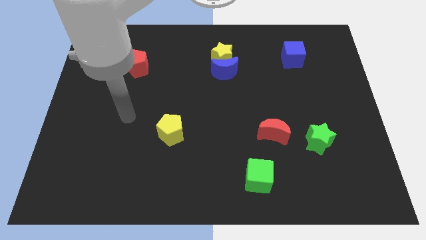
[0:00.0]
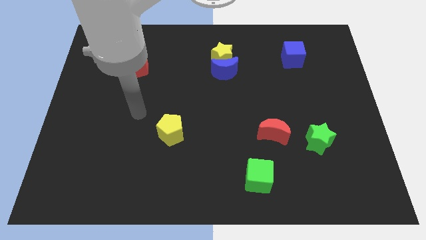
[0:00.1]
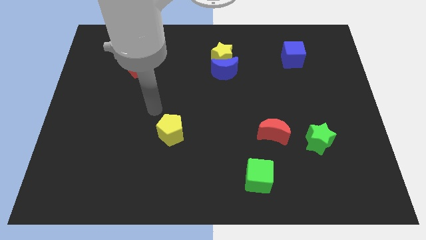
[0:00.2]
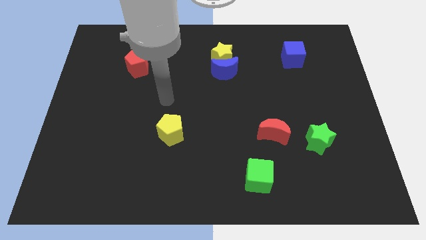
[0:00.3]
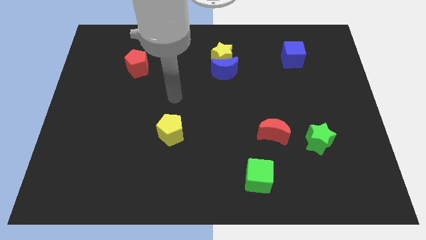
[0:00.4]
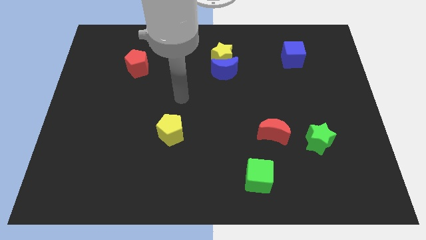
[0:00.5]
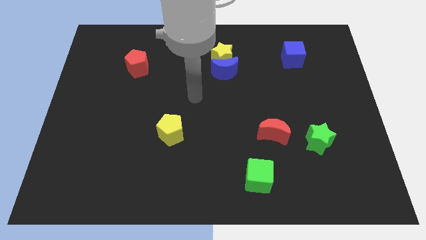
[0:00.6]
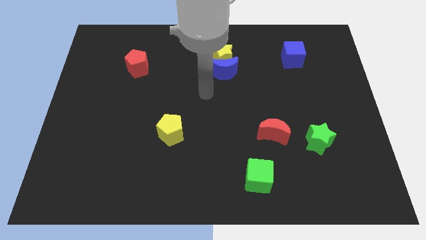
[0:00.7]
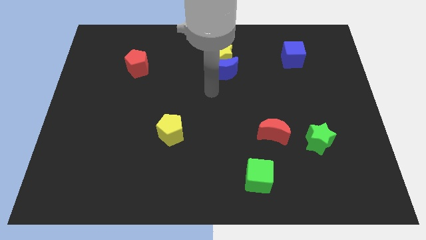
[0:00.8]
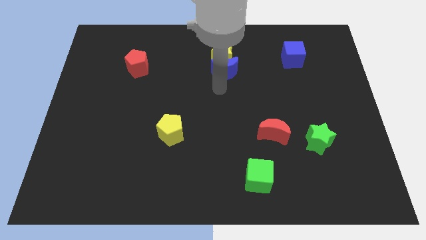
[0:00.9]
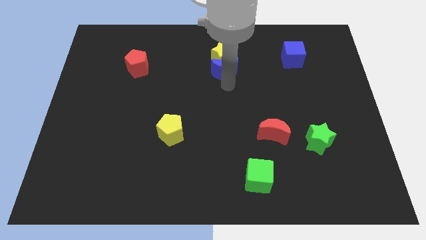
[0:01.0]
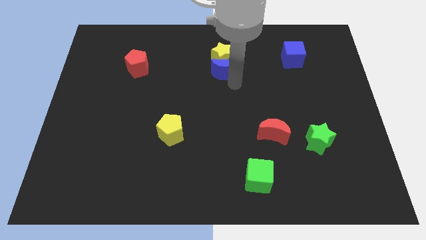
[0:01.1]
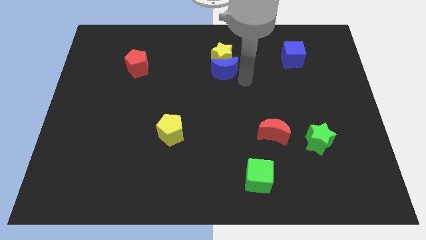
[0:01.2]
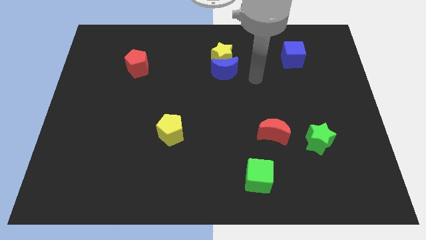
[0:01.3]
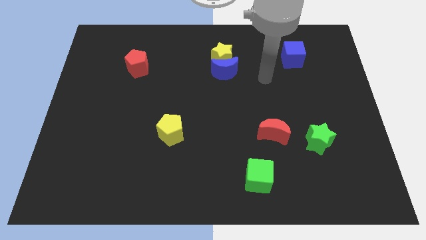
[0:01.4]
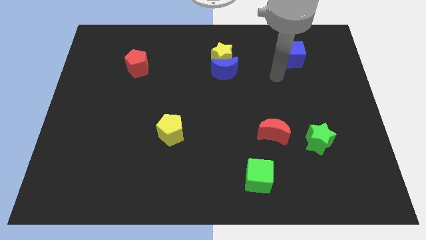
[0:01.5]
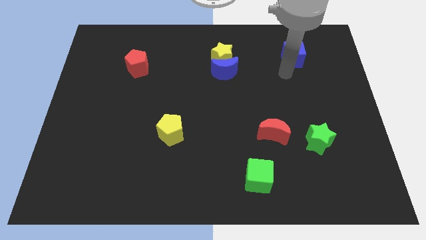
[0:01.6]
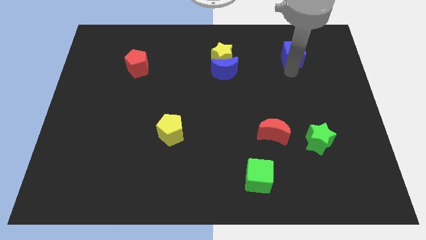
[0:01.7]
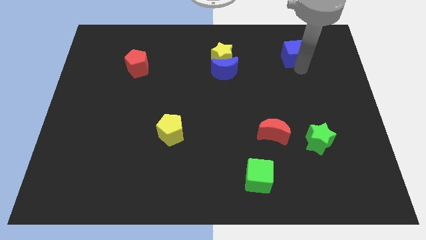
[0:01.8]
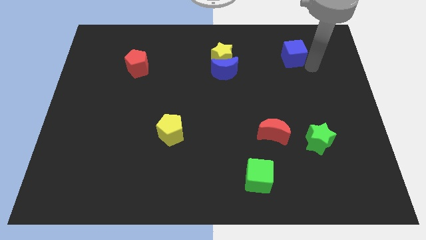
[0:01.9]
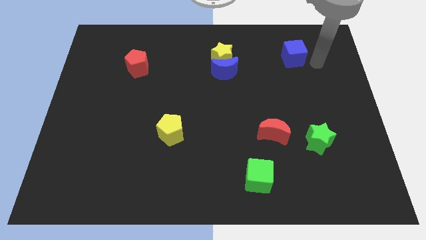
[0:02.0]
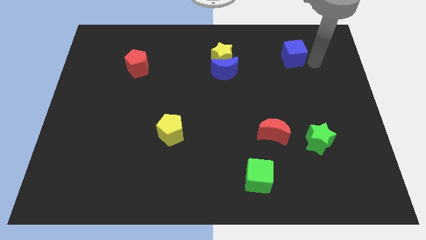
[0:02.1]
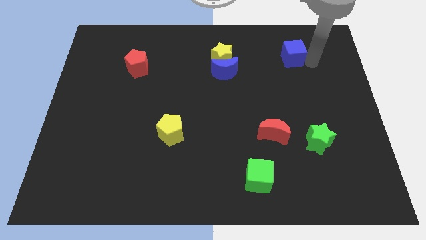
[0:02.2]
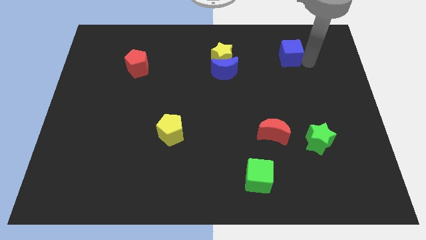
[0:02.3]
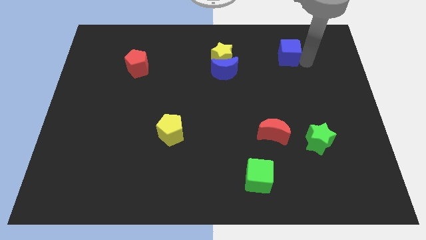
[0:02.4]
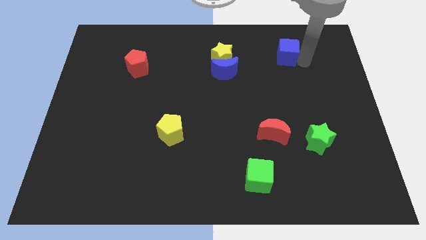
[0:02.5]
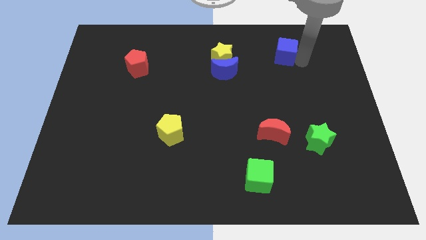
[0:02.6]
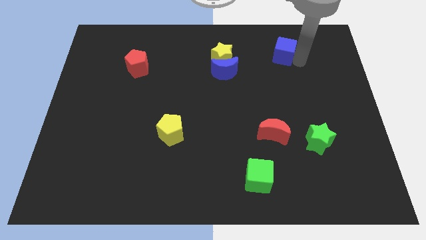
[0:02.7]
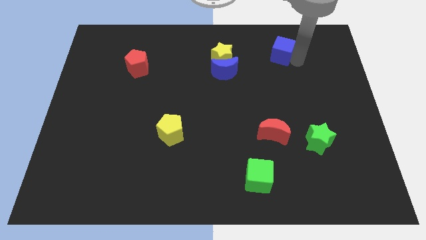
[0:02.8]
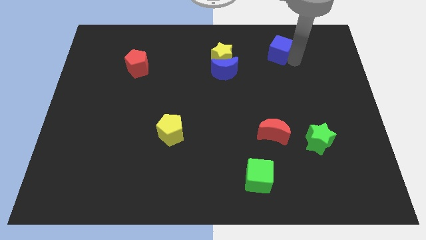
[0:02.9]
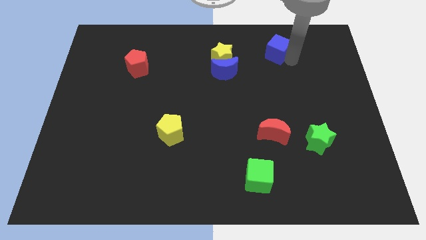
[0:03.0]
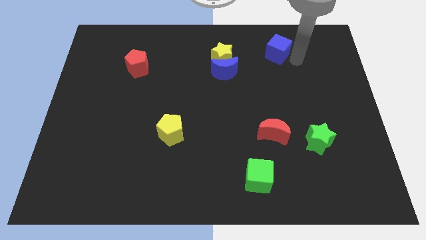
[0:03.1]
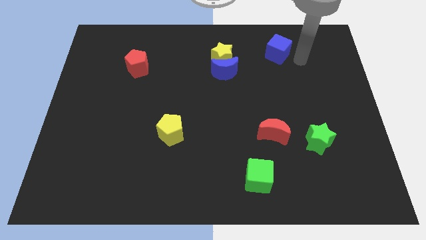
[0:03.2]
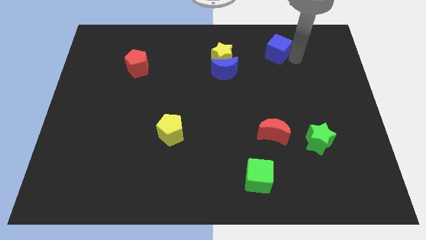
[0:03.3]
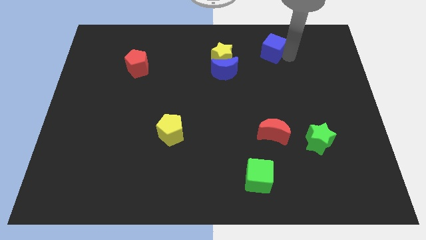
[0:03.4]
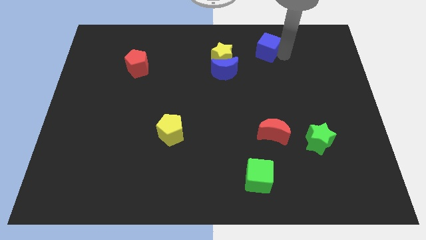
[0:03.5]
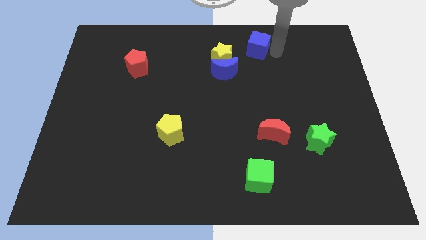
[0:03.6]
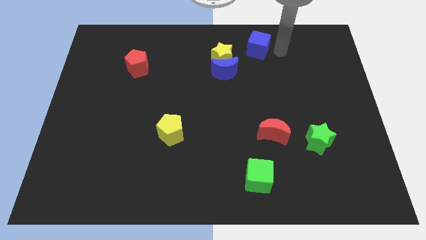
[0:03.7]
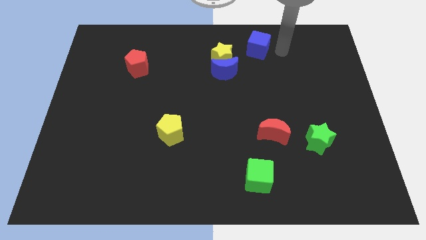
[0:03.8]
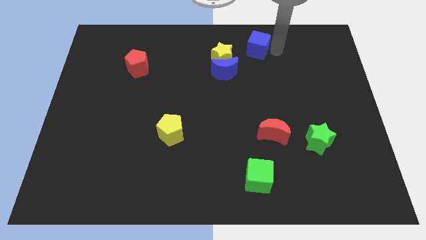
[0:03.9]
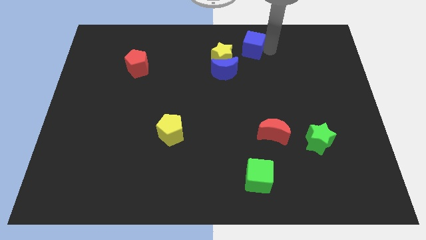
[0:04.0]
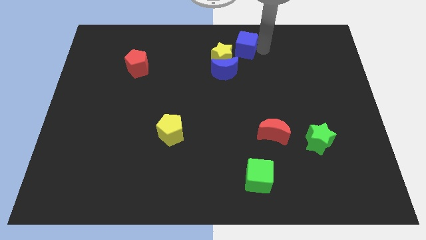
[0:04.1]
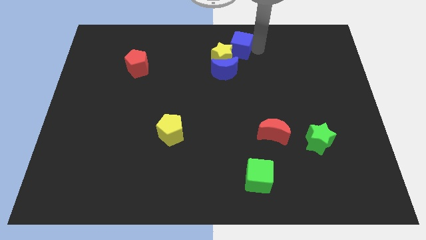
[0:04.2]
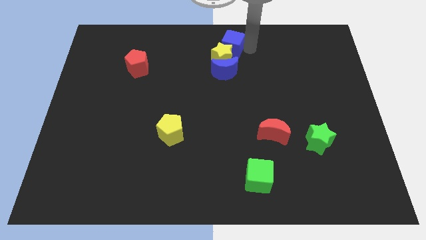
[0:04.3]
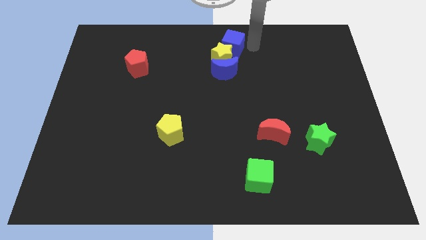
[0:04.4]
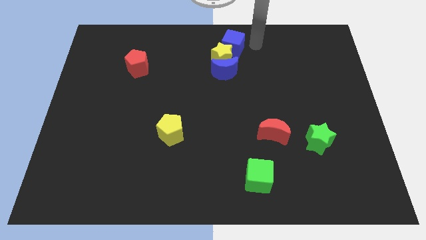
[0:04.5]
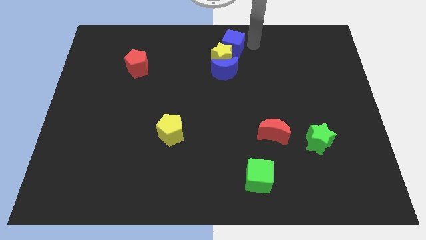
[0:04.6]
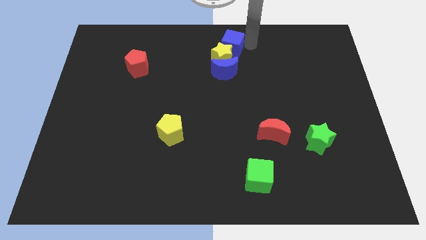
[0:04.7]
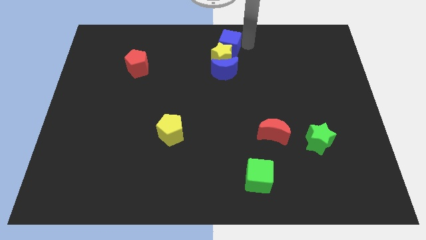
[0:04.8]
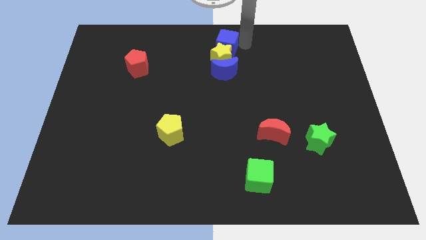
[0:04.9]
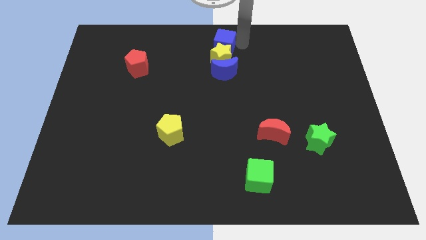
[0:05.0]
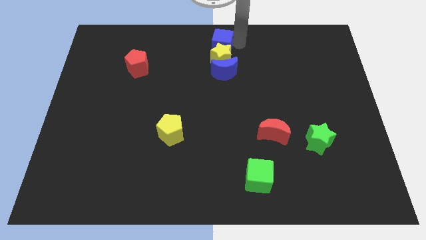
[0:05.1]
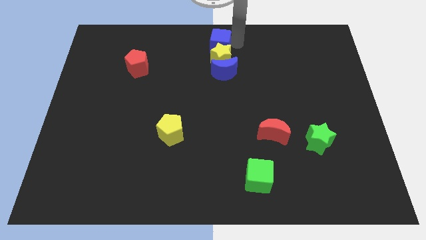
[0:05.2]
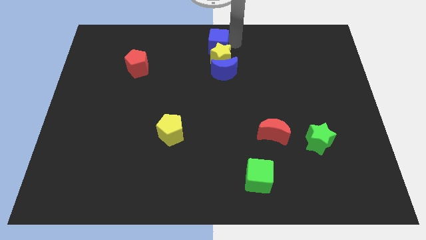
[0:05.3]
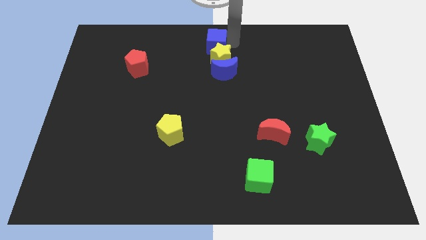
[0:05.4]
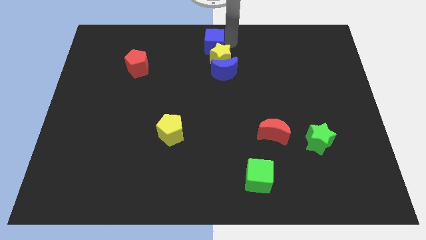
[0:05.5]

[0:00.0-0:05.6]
push the blue cube left

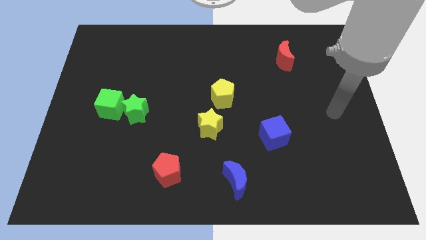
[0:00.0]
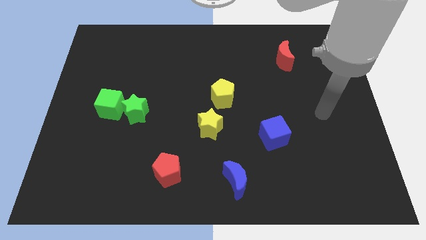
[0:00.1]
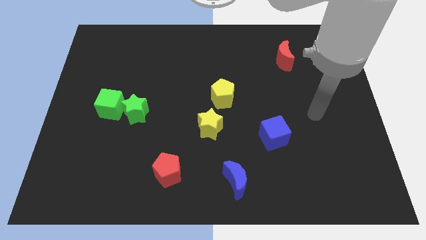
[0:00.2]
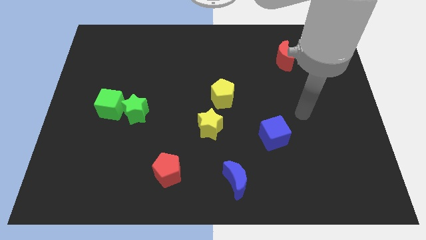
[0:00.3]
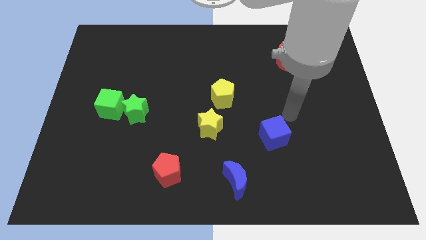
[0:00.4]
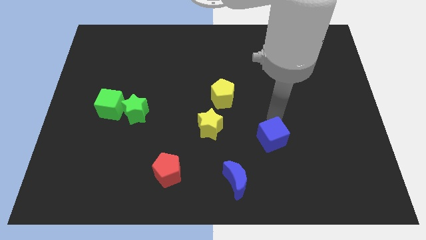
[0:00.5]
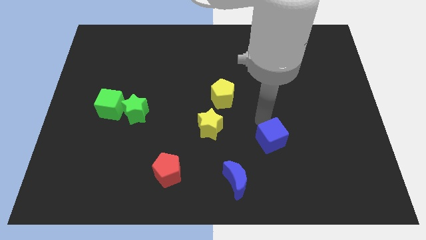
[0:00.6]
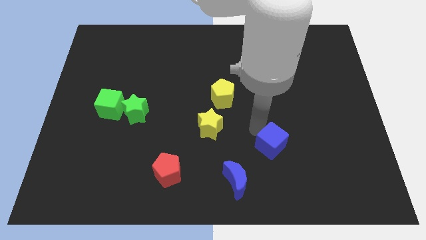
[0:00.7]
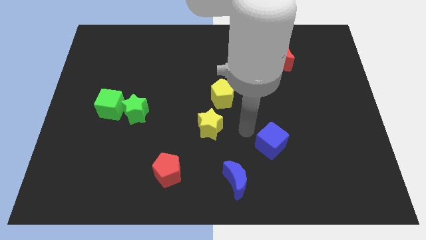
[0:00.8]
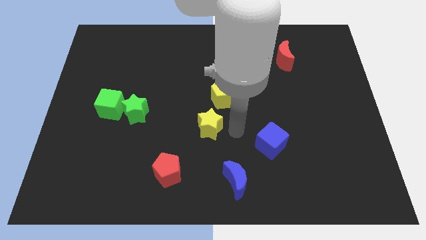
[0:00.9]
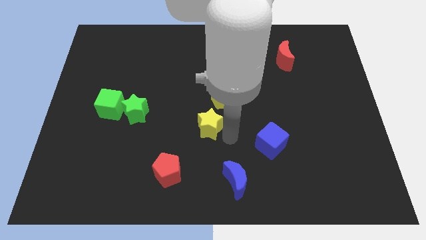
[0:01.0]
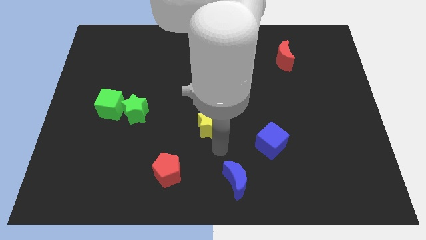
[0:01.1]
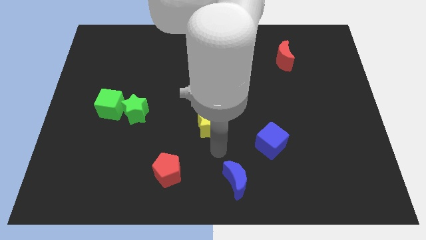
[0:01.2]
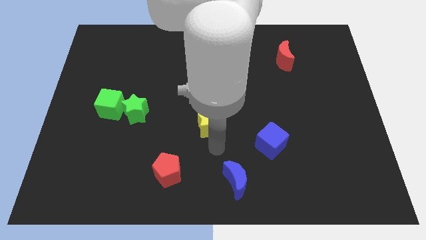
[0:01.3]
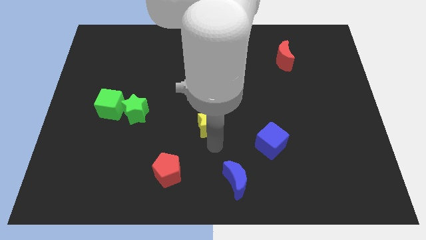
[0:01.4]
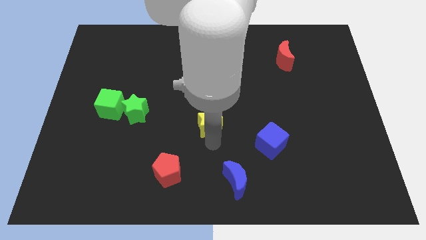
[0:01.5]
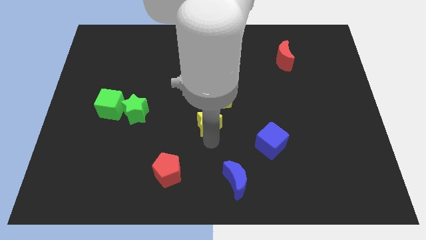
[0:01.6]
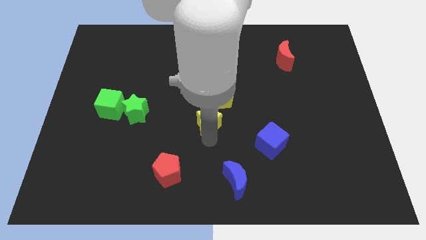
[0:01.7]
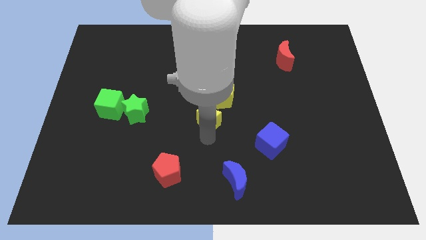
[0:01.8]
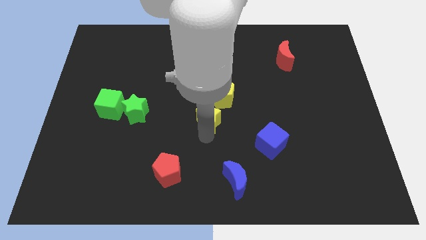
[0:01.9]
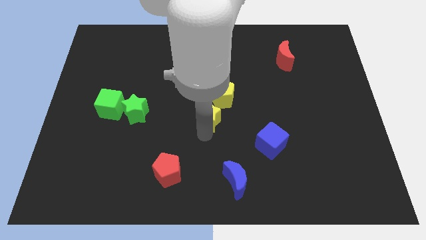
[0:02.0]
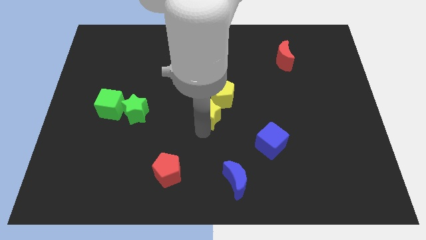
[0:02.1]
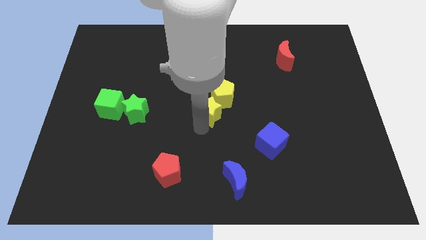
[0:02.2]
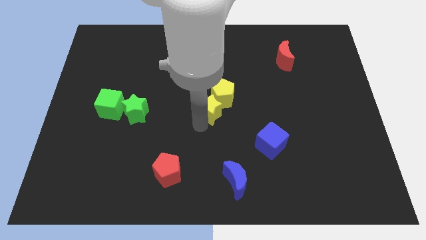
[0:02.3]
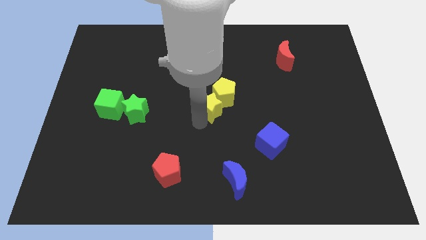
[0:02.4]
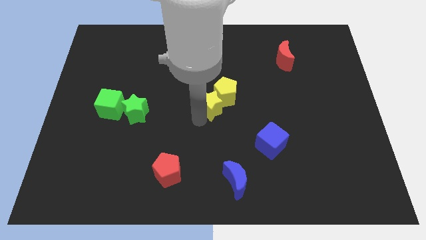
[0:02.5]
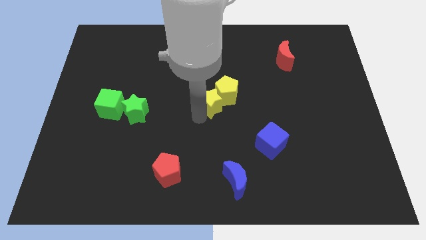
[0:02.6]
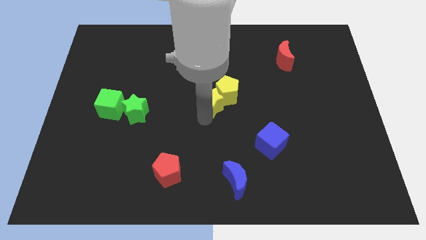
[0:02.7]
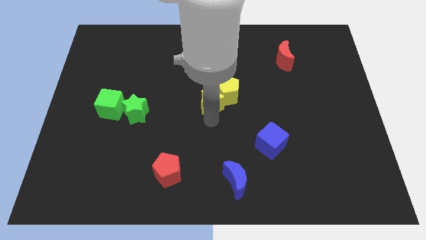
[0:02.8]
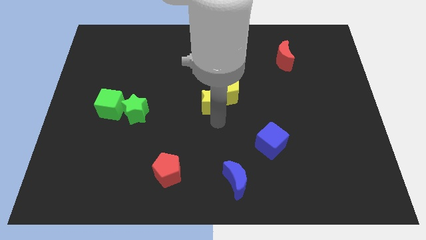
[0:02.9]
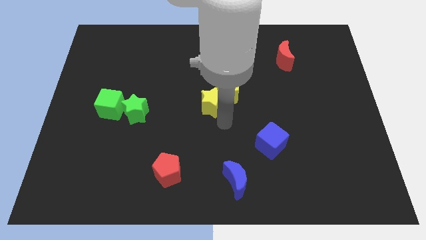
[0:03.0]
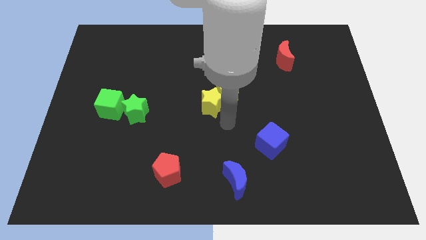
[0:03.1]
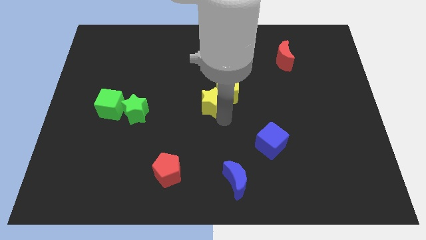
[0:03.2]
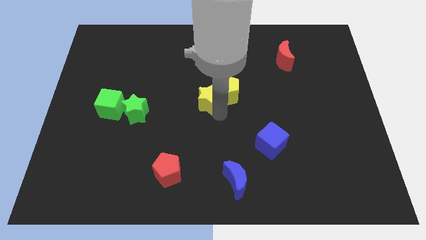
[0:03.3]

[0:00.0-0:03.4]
slightly move the yellow star up
